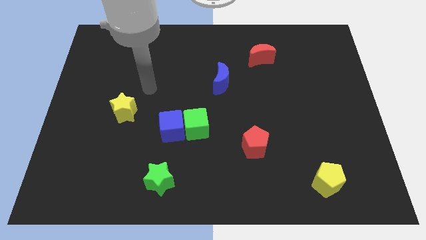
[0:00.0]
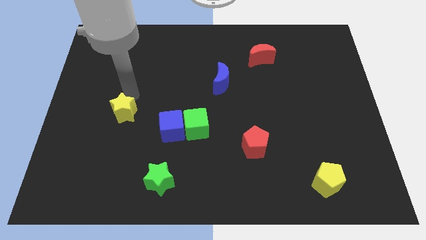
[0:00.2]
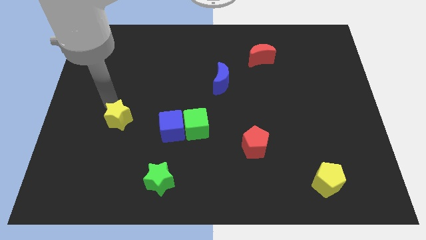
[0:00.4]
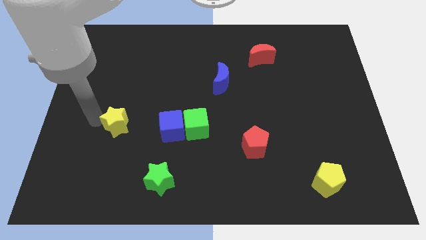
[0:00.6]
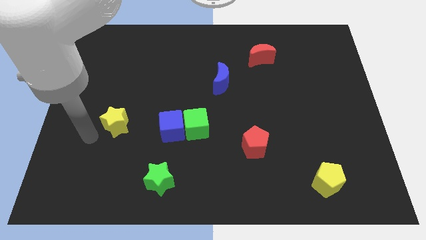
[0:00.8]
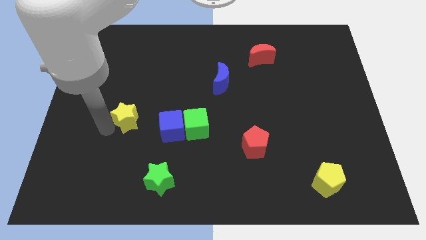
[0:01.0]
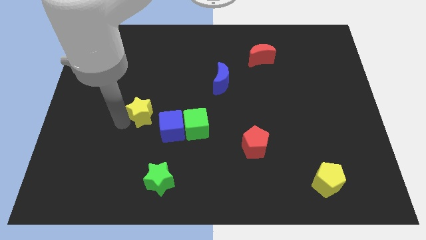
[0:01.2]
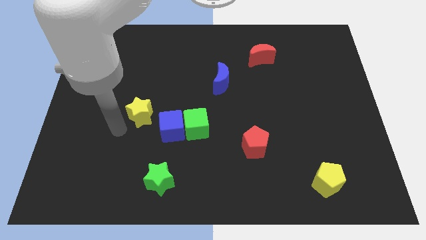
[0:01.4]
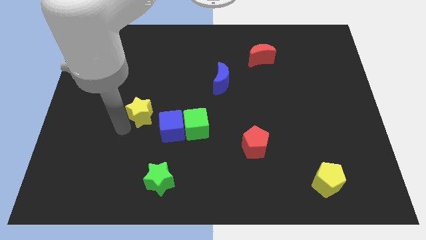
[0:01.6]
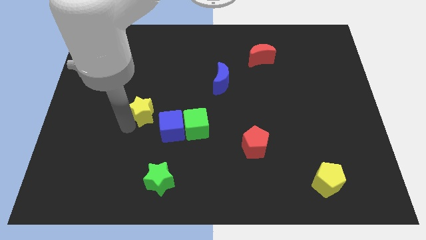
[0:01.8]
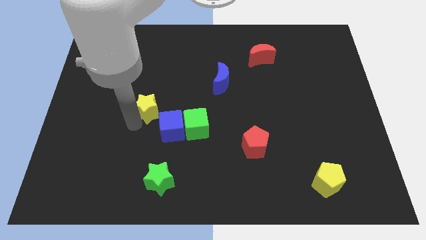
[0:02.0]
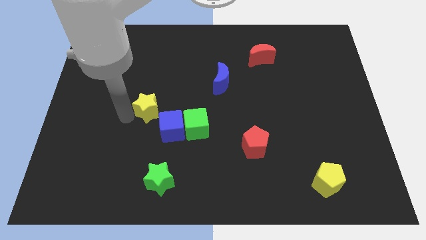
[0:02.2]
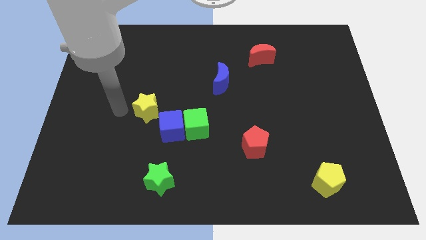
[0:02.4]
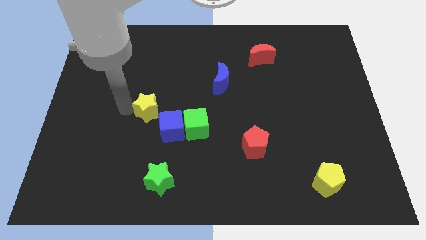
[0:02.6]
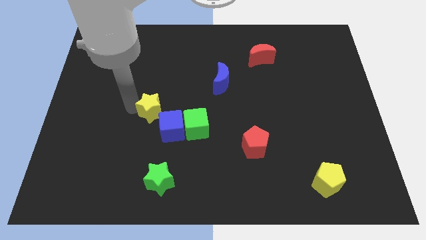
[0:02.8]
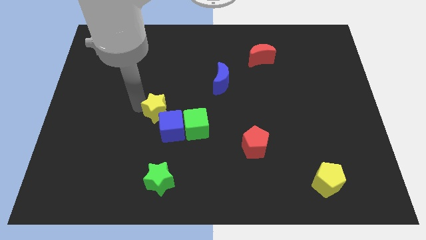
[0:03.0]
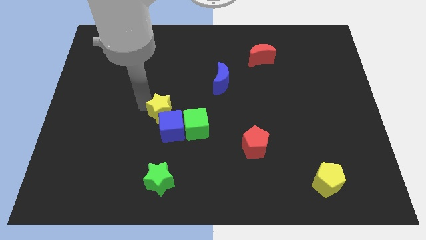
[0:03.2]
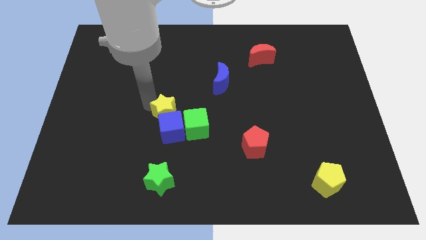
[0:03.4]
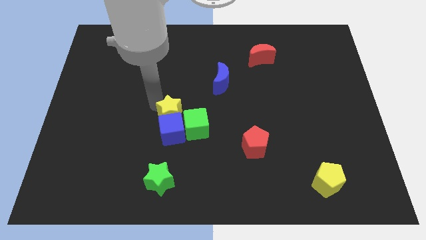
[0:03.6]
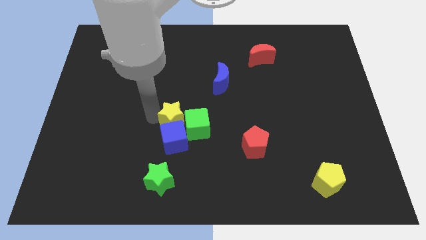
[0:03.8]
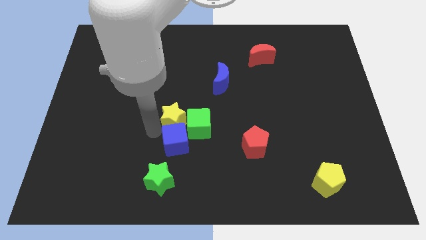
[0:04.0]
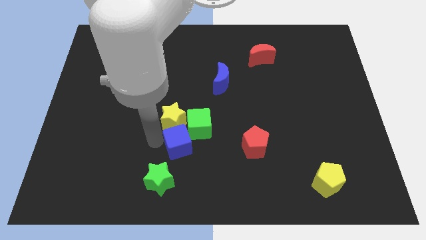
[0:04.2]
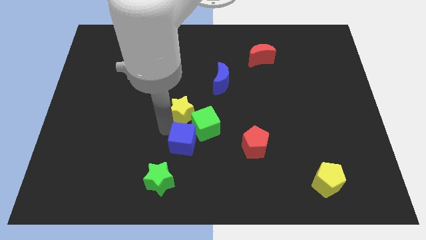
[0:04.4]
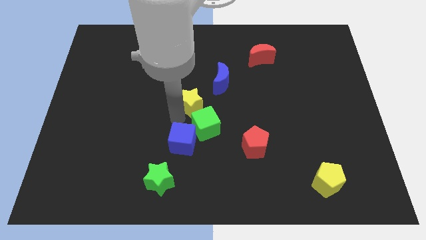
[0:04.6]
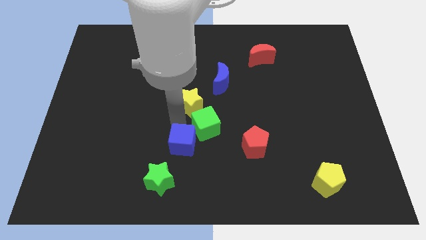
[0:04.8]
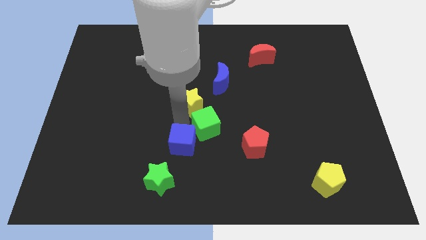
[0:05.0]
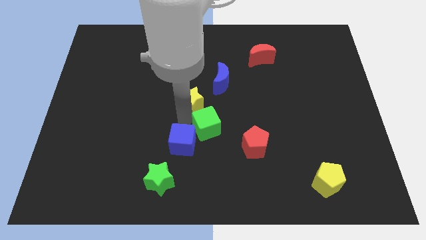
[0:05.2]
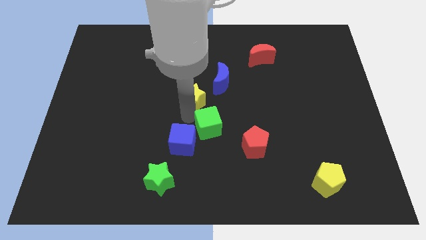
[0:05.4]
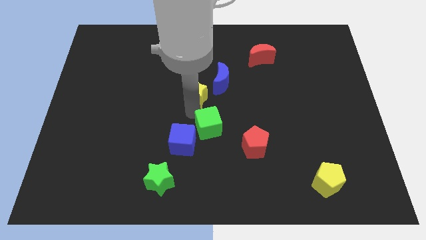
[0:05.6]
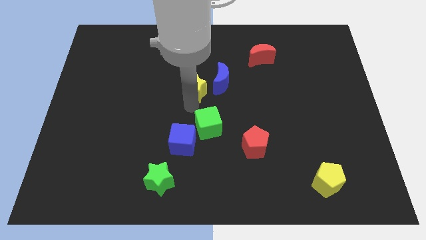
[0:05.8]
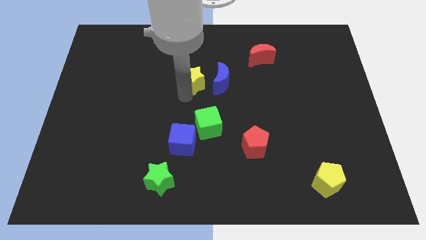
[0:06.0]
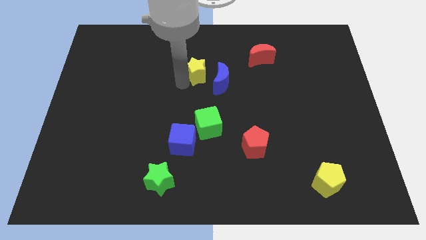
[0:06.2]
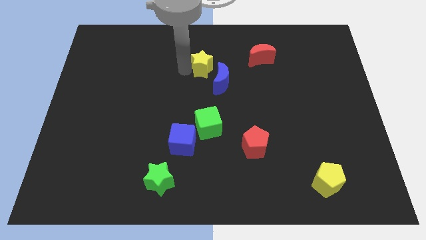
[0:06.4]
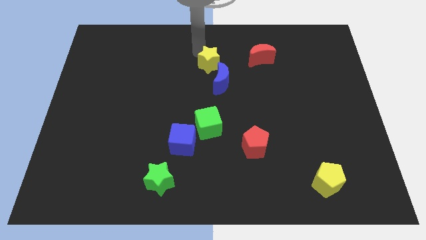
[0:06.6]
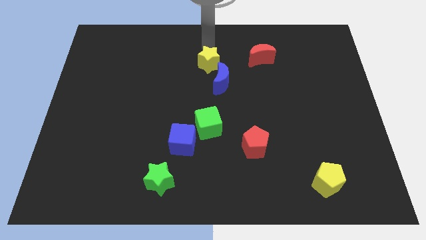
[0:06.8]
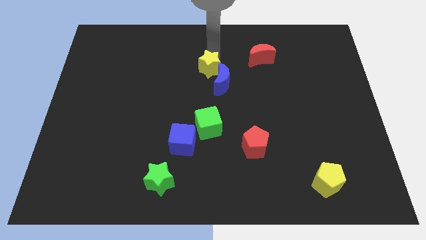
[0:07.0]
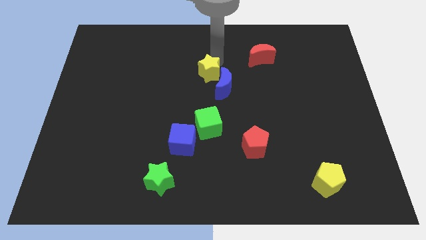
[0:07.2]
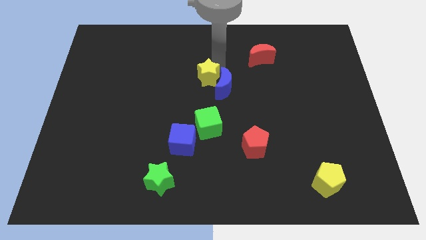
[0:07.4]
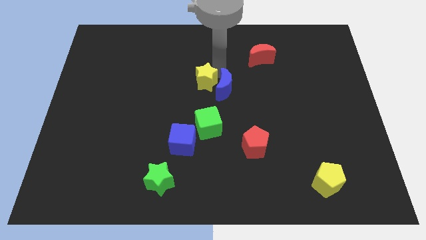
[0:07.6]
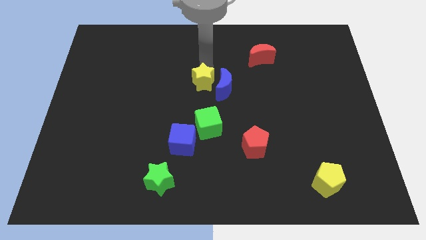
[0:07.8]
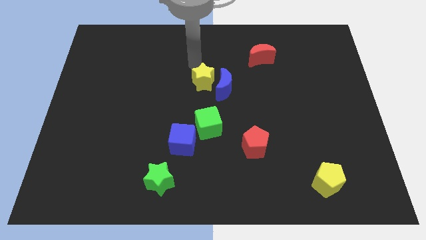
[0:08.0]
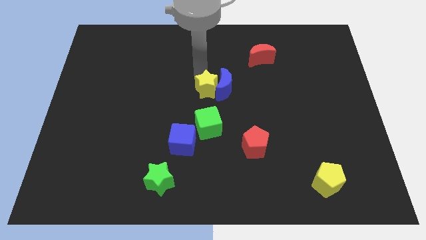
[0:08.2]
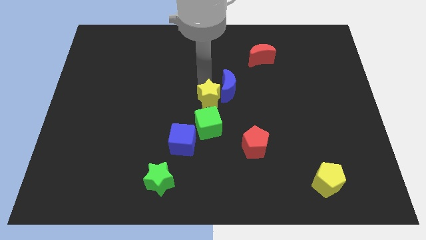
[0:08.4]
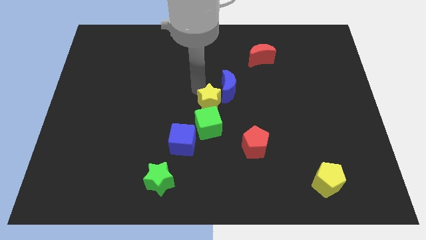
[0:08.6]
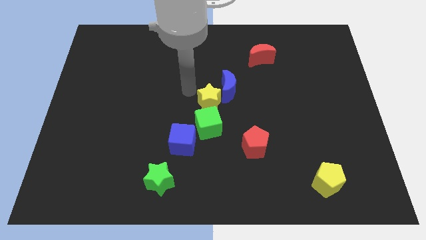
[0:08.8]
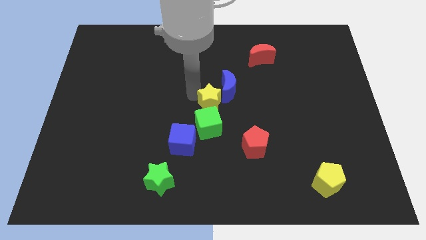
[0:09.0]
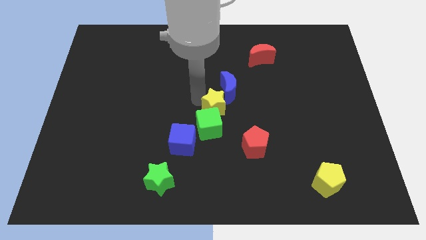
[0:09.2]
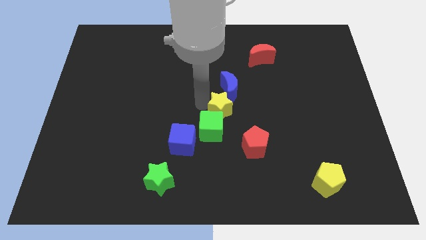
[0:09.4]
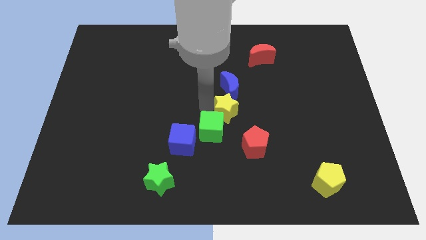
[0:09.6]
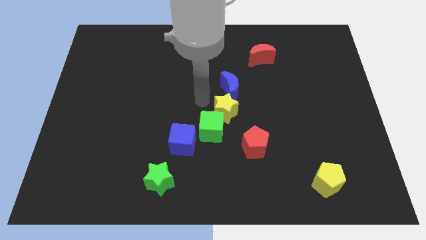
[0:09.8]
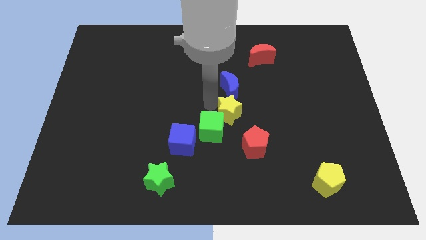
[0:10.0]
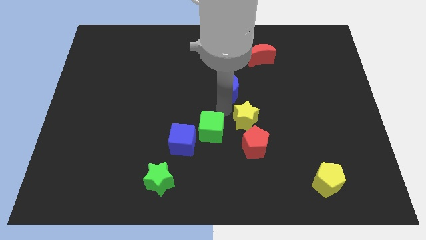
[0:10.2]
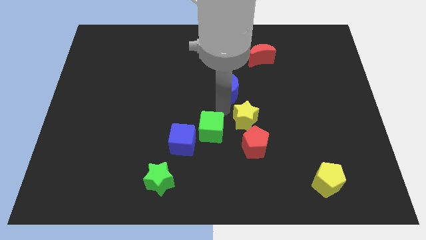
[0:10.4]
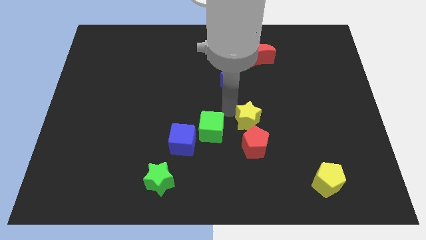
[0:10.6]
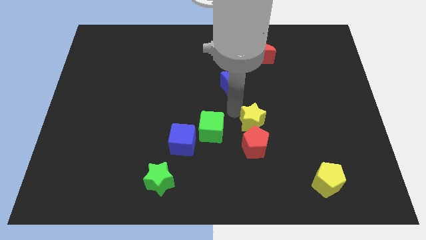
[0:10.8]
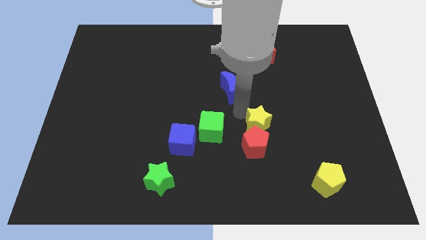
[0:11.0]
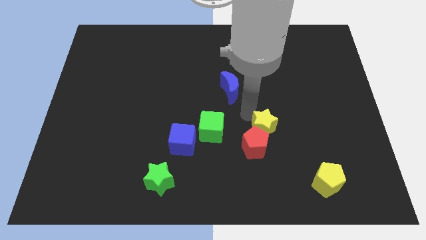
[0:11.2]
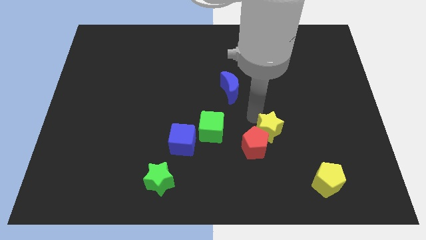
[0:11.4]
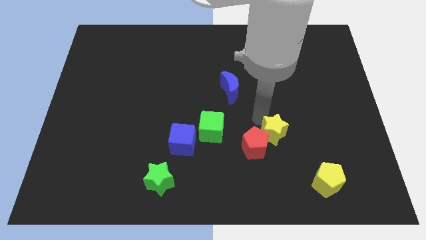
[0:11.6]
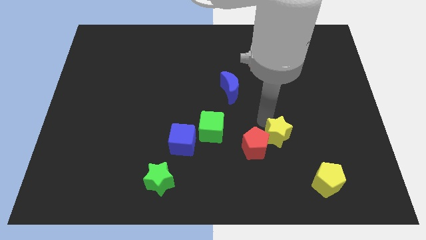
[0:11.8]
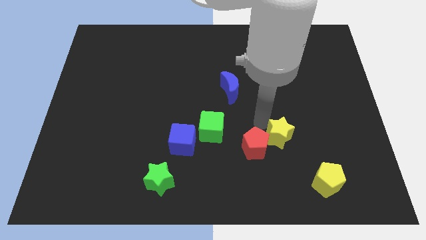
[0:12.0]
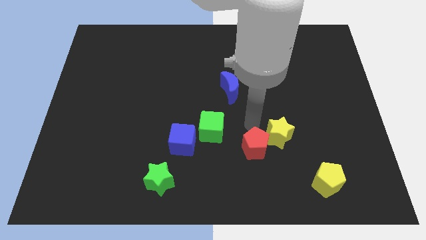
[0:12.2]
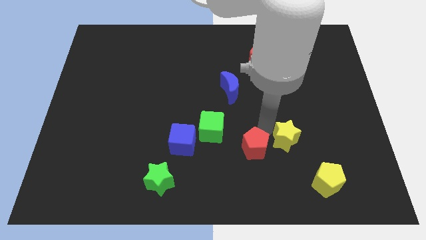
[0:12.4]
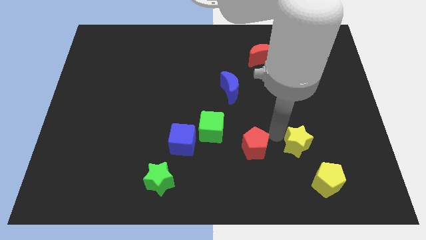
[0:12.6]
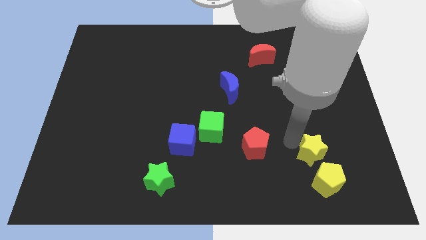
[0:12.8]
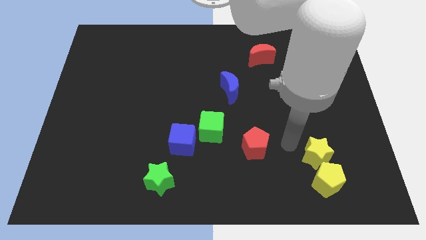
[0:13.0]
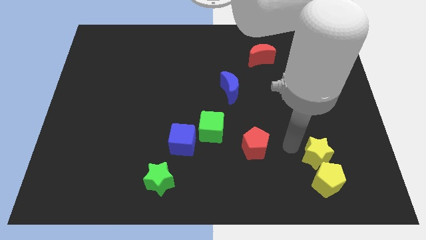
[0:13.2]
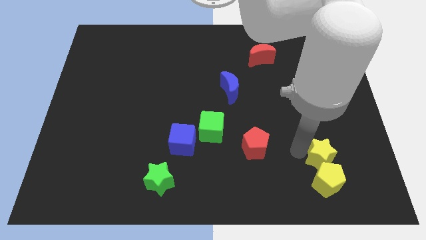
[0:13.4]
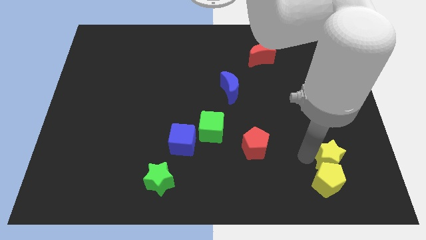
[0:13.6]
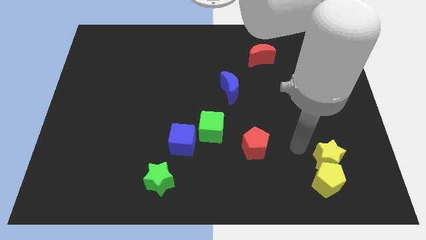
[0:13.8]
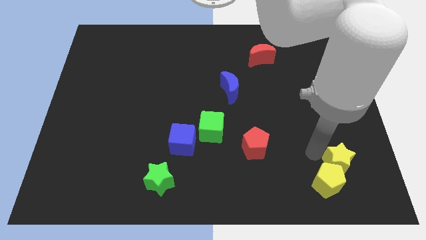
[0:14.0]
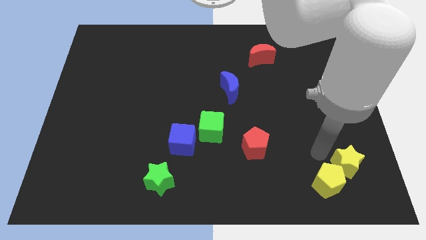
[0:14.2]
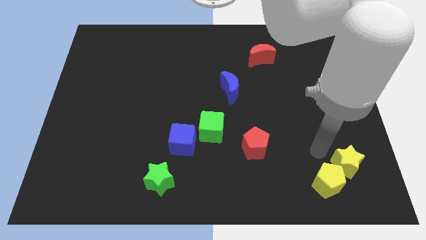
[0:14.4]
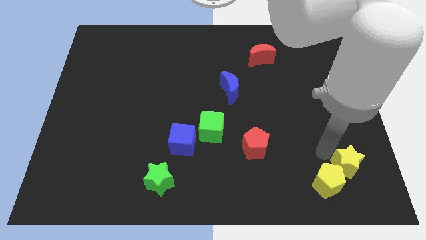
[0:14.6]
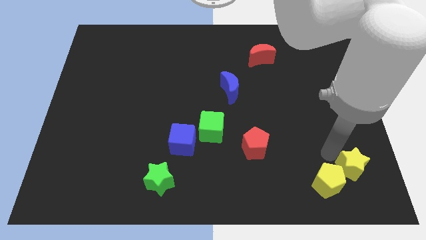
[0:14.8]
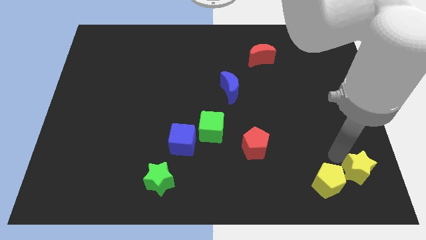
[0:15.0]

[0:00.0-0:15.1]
move the yellow star to the bottom right of the board
